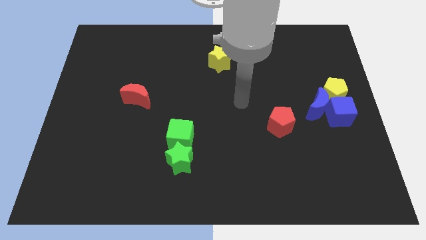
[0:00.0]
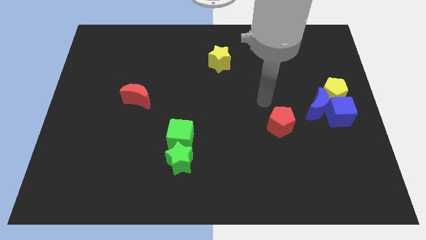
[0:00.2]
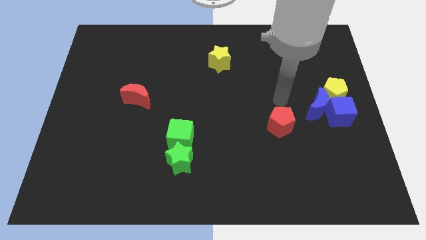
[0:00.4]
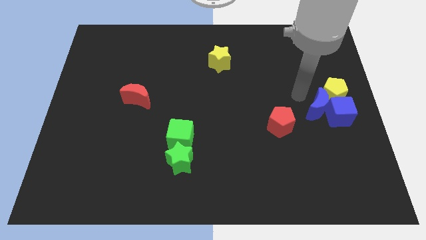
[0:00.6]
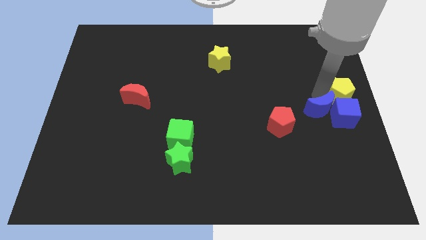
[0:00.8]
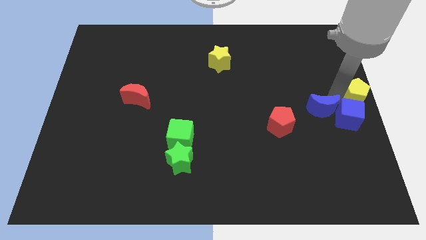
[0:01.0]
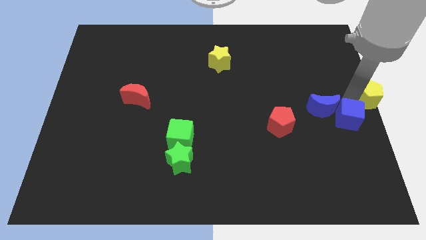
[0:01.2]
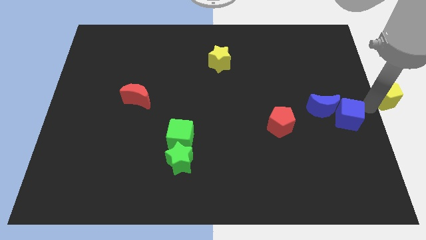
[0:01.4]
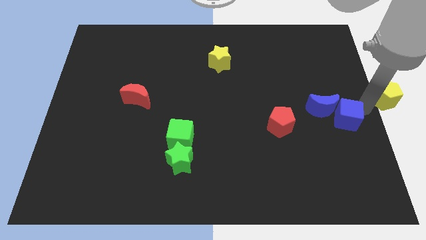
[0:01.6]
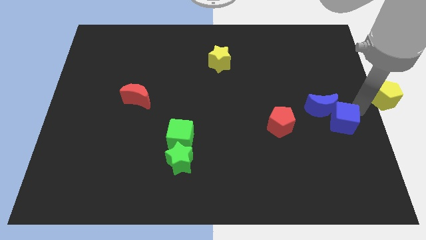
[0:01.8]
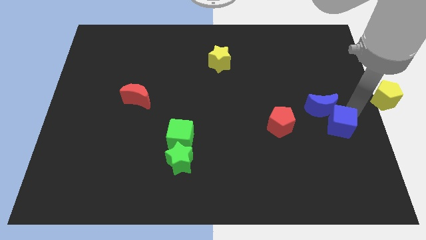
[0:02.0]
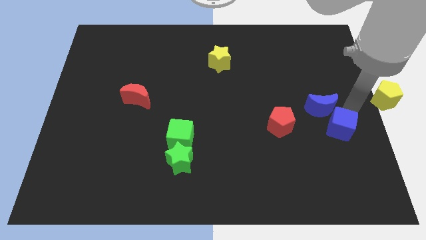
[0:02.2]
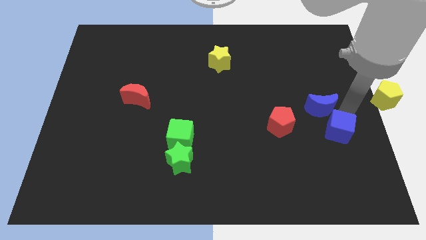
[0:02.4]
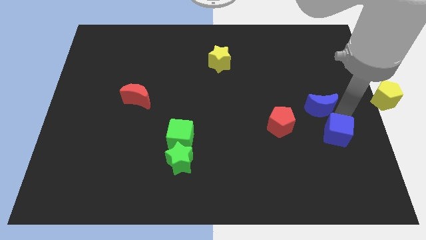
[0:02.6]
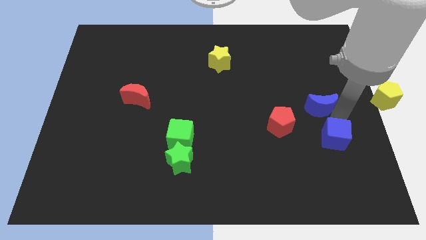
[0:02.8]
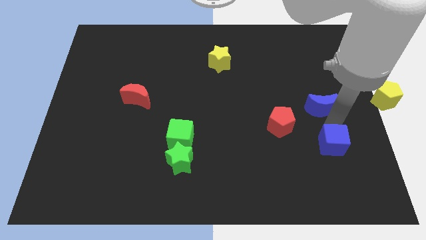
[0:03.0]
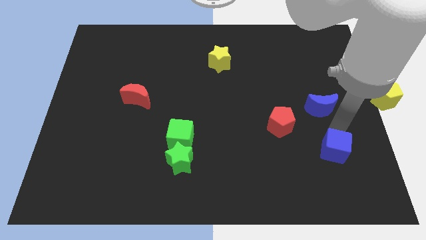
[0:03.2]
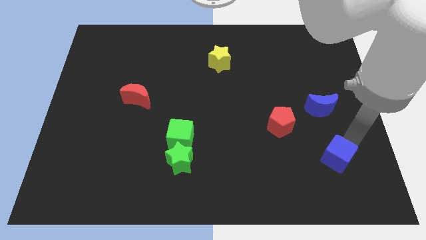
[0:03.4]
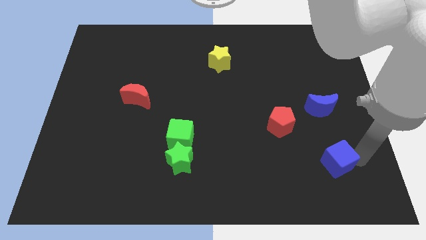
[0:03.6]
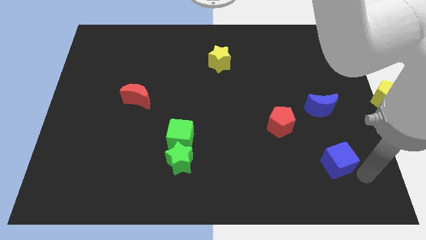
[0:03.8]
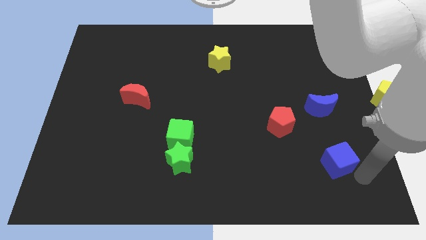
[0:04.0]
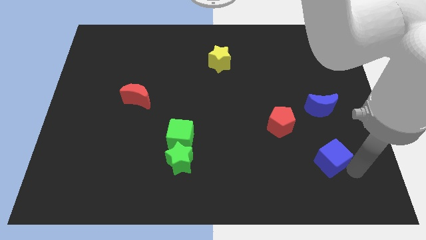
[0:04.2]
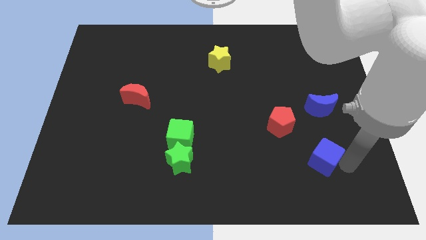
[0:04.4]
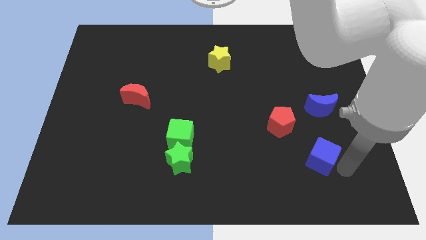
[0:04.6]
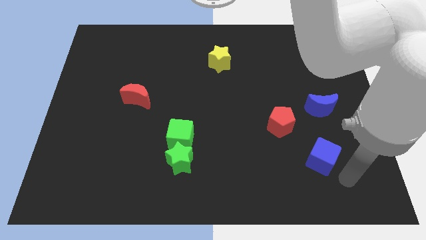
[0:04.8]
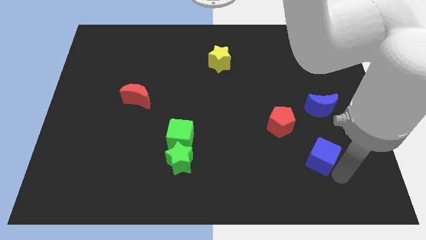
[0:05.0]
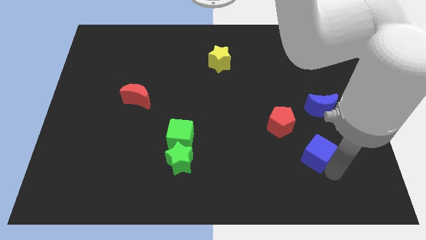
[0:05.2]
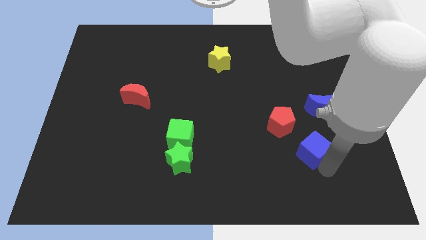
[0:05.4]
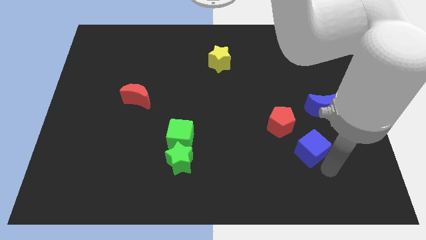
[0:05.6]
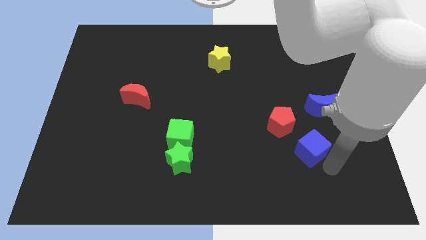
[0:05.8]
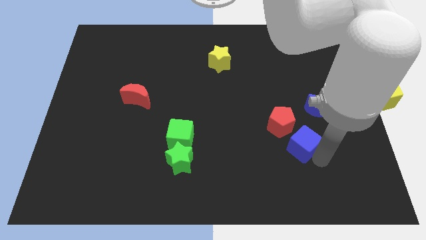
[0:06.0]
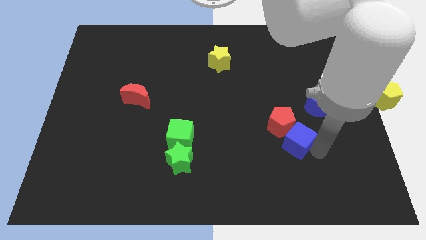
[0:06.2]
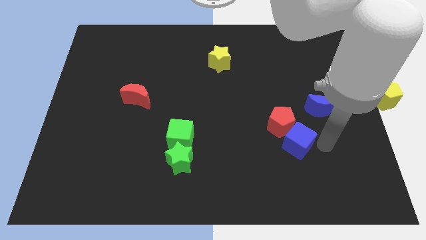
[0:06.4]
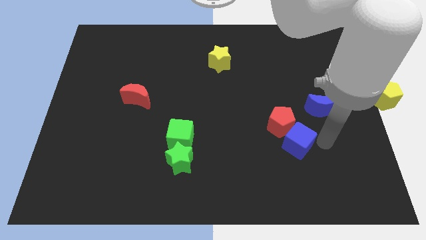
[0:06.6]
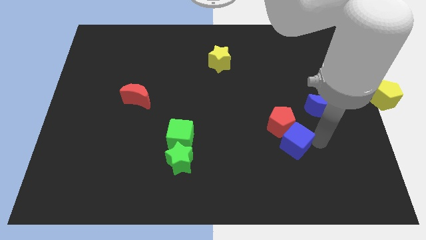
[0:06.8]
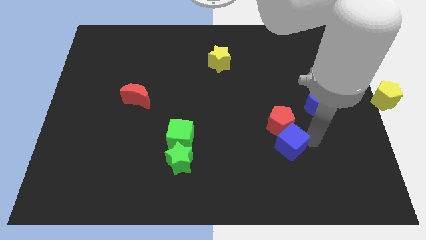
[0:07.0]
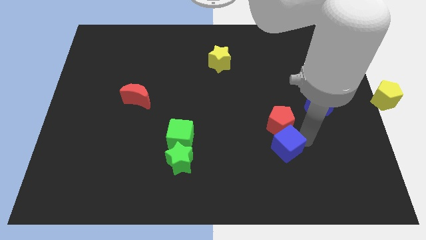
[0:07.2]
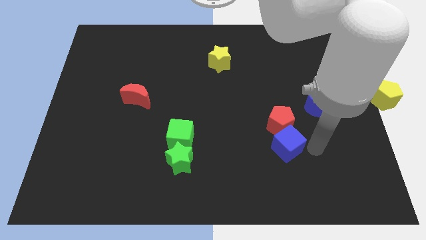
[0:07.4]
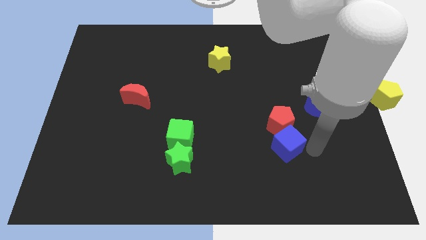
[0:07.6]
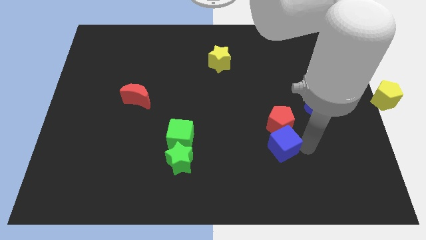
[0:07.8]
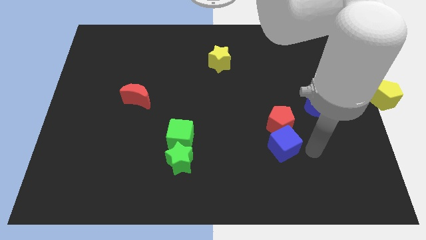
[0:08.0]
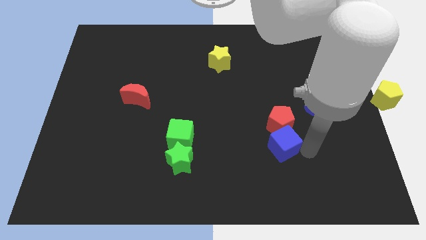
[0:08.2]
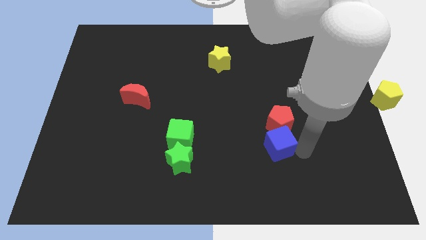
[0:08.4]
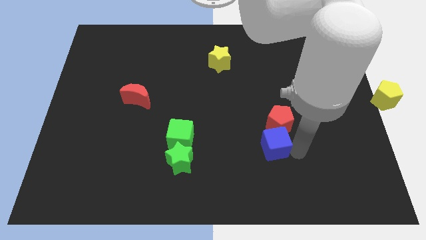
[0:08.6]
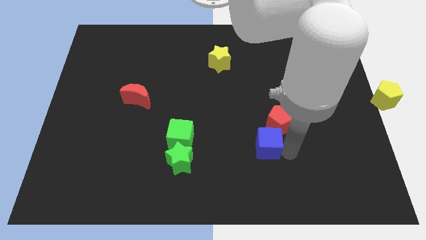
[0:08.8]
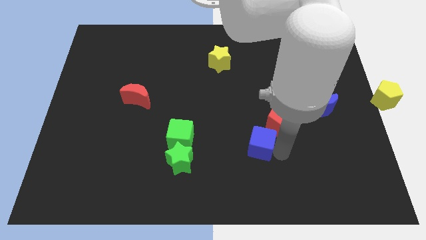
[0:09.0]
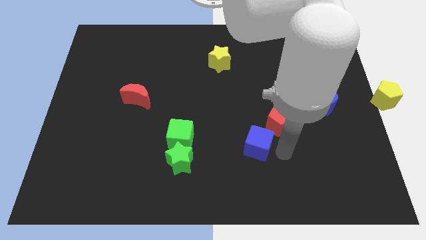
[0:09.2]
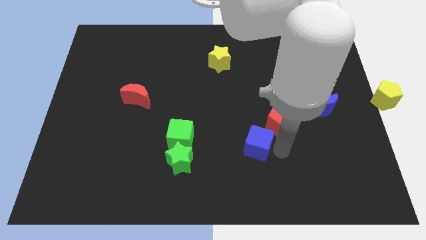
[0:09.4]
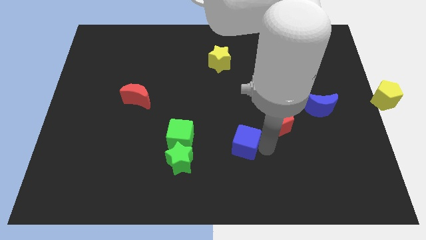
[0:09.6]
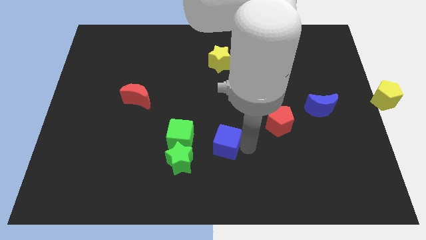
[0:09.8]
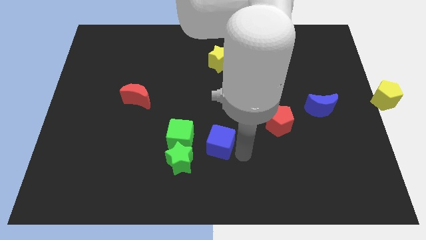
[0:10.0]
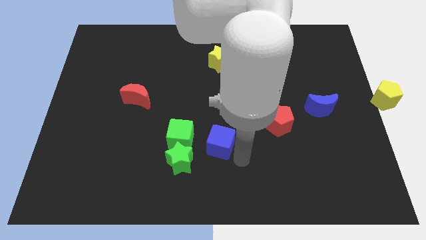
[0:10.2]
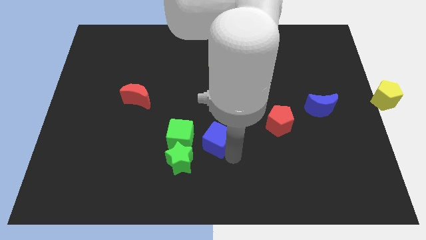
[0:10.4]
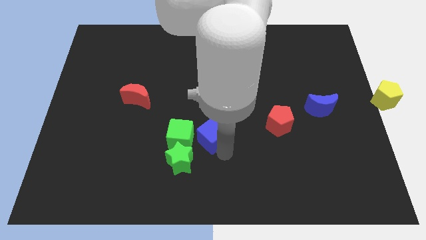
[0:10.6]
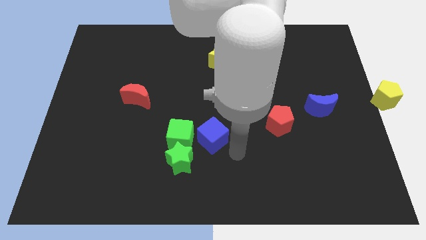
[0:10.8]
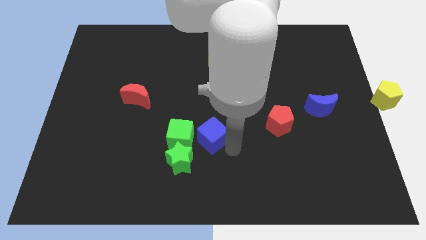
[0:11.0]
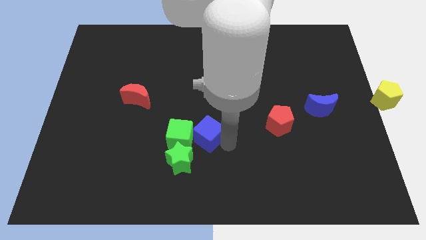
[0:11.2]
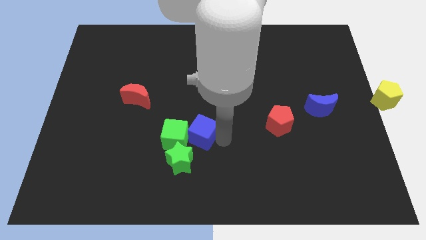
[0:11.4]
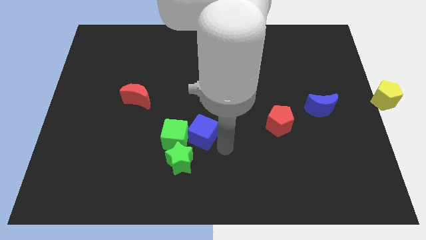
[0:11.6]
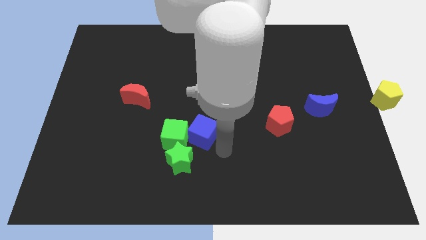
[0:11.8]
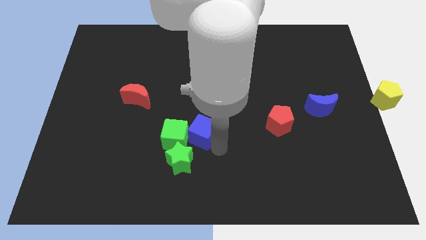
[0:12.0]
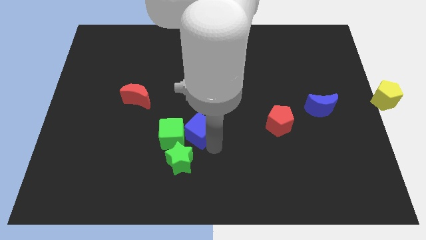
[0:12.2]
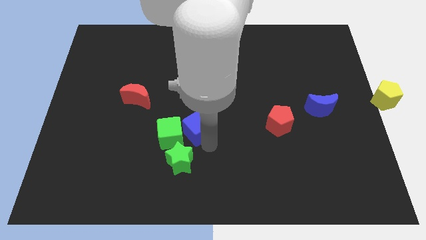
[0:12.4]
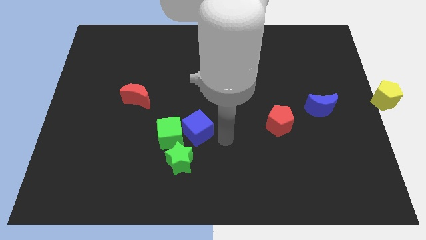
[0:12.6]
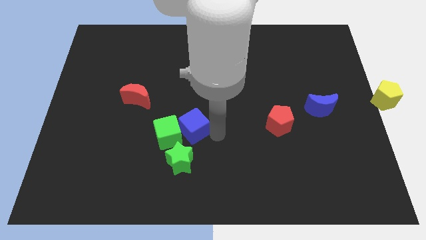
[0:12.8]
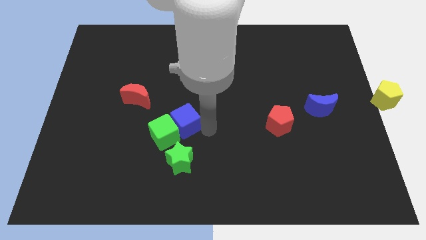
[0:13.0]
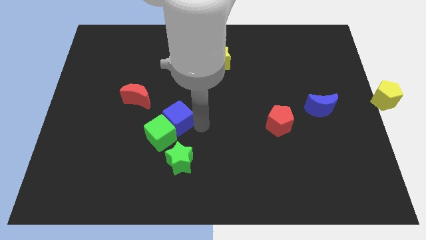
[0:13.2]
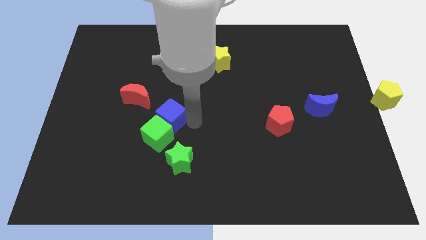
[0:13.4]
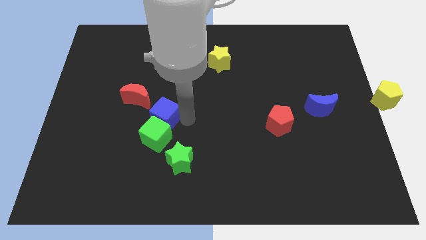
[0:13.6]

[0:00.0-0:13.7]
move the blue cube diagonally up and to the left of the green cube

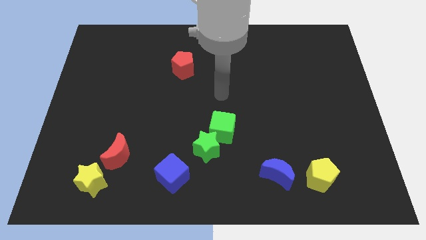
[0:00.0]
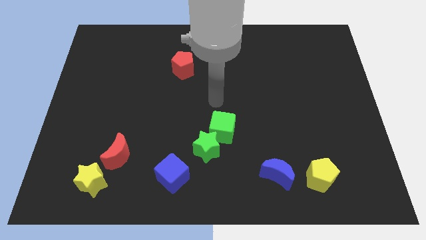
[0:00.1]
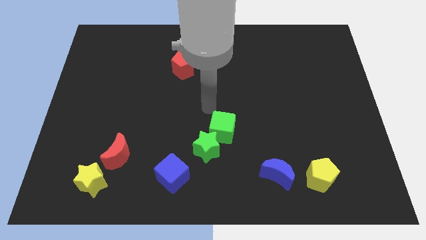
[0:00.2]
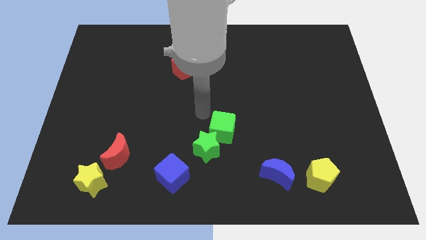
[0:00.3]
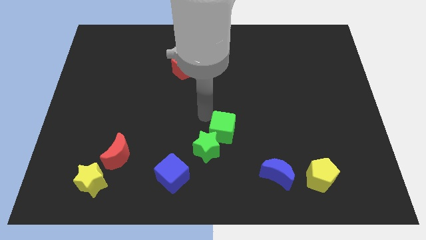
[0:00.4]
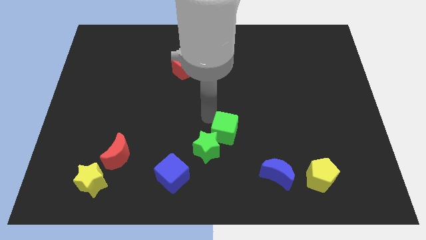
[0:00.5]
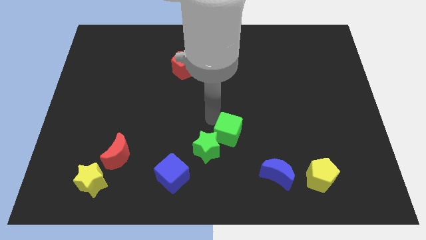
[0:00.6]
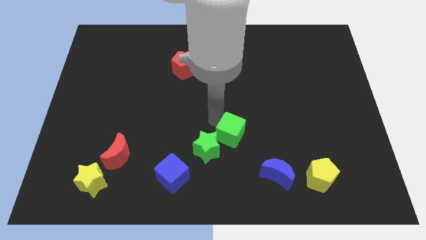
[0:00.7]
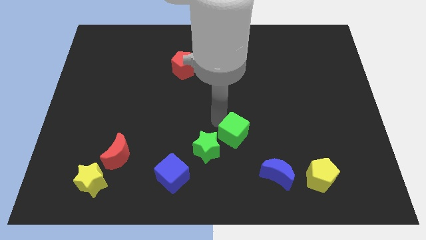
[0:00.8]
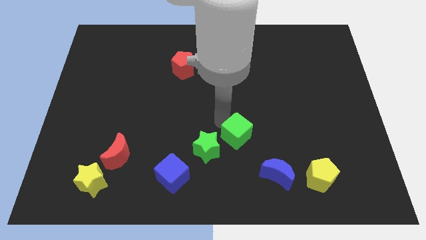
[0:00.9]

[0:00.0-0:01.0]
move the green cube to the top left of the blue moon

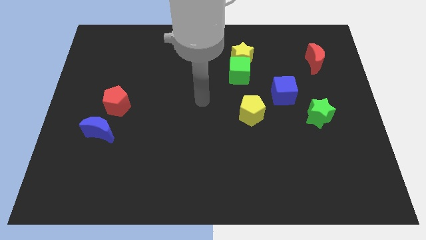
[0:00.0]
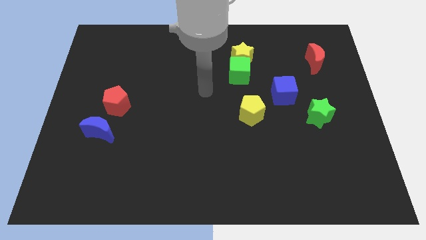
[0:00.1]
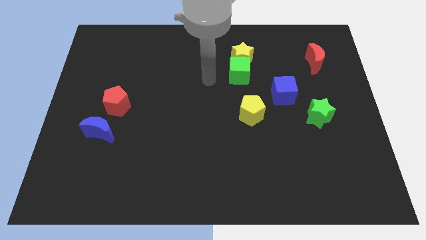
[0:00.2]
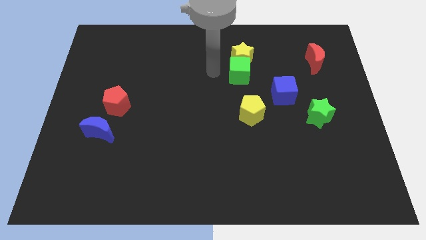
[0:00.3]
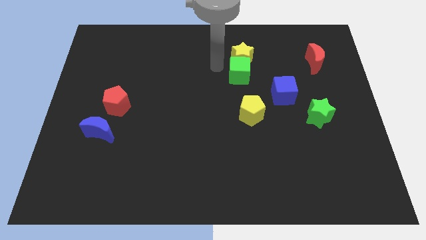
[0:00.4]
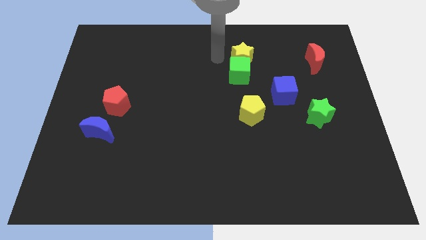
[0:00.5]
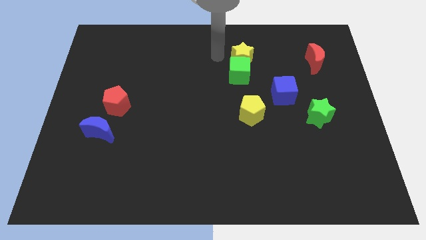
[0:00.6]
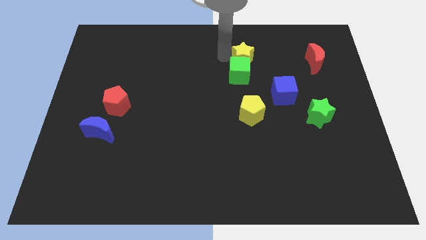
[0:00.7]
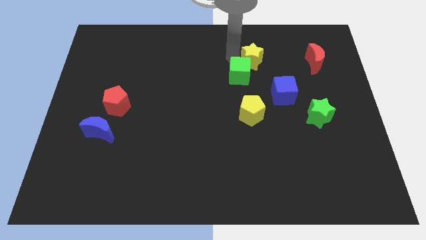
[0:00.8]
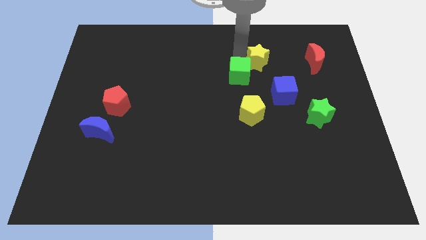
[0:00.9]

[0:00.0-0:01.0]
push the yellow star to the left of the red moon
